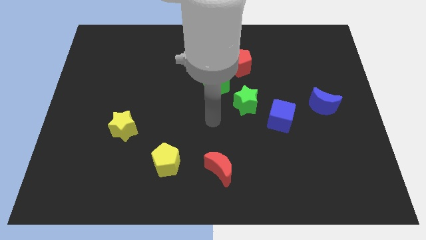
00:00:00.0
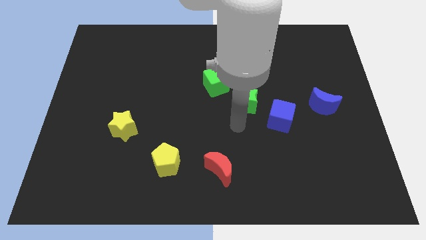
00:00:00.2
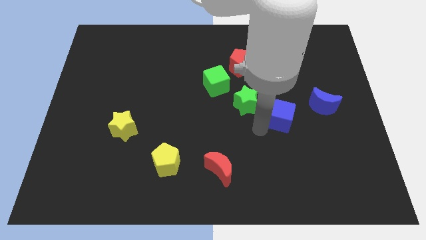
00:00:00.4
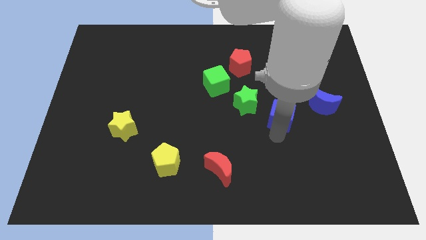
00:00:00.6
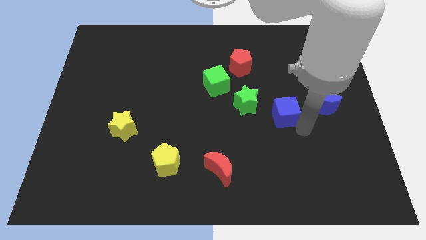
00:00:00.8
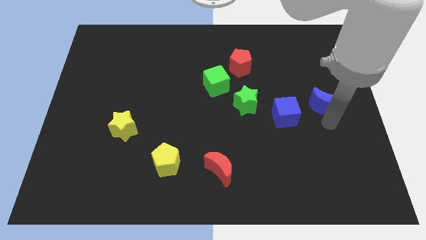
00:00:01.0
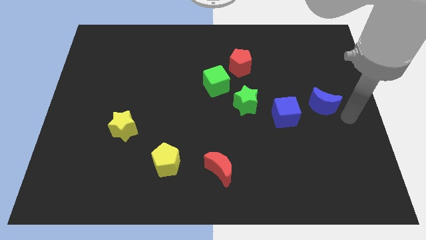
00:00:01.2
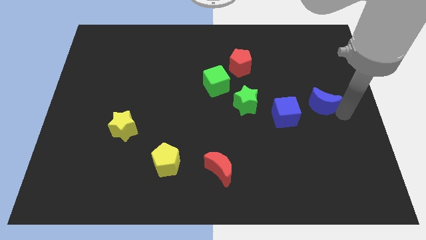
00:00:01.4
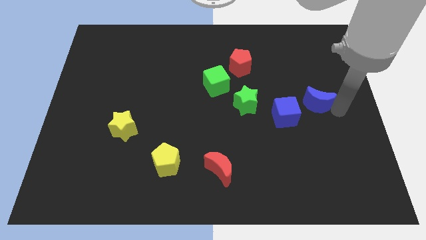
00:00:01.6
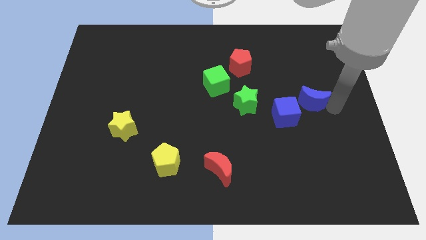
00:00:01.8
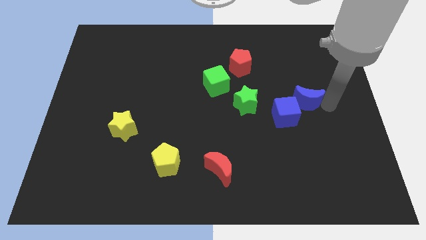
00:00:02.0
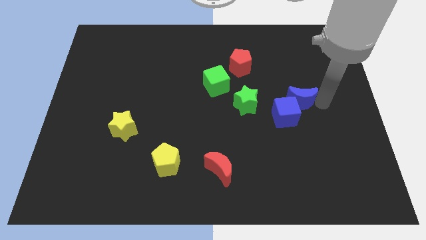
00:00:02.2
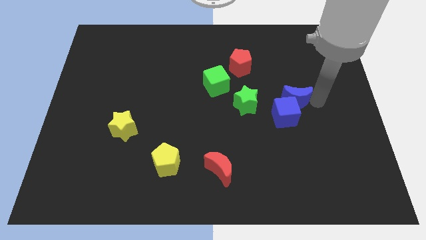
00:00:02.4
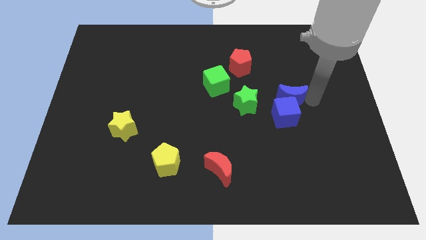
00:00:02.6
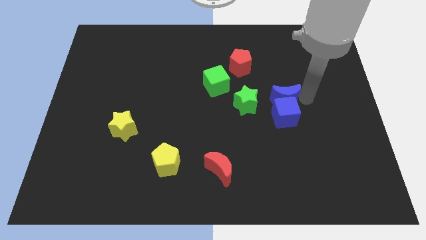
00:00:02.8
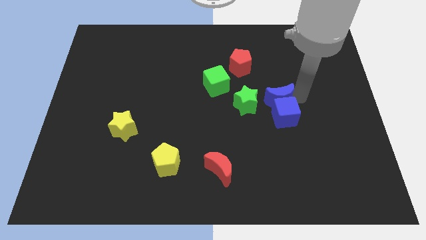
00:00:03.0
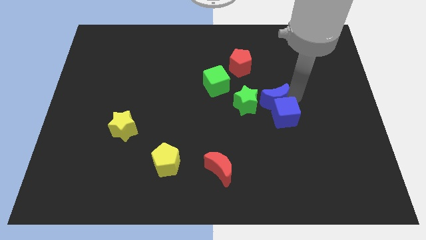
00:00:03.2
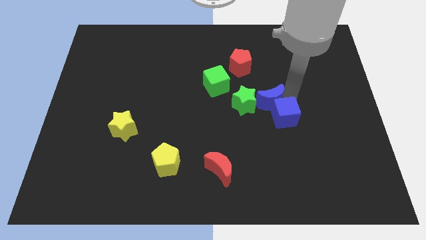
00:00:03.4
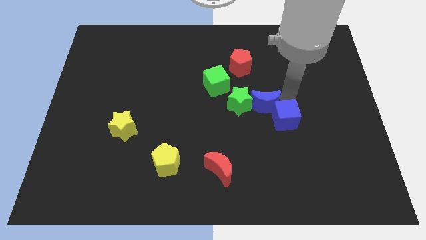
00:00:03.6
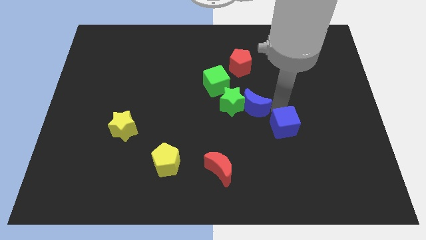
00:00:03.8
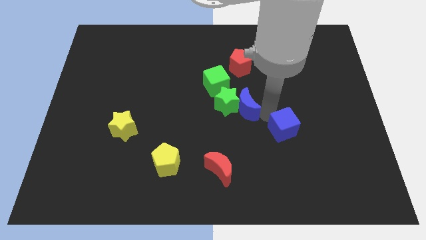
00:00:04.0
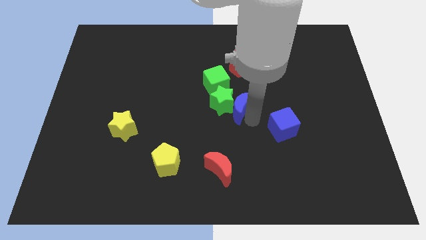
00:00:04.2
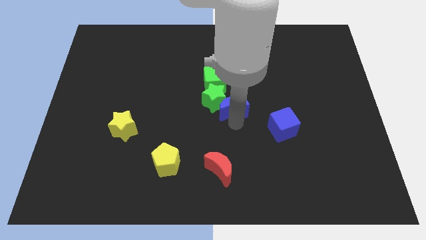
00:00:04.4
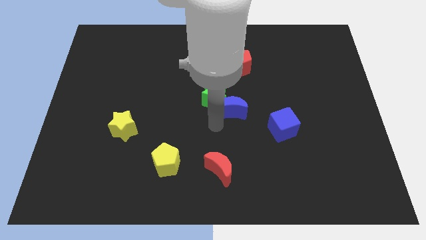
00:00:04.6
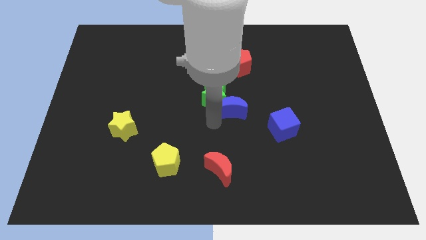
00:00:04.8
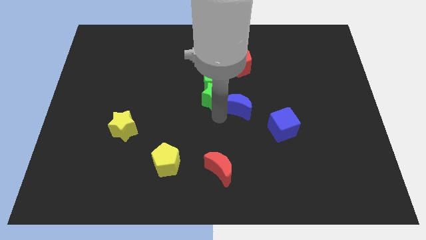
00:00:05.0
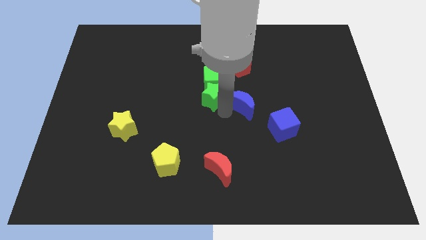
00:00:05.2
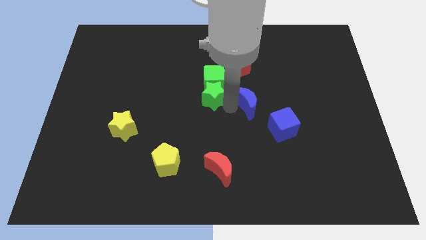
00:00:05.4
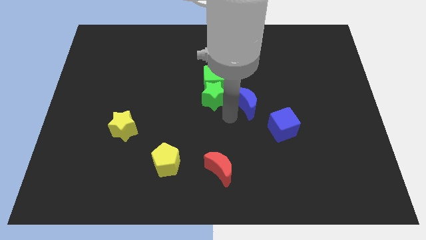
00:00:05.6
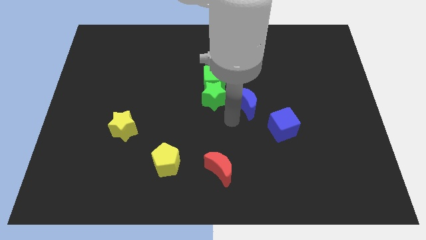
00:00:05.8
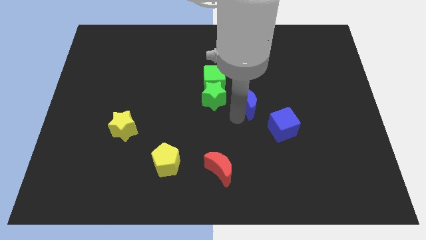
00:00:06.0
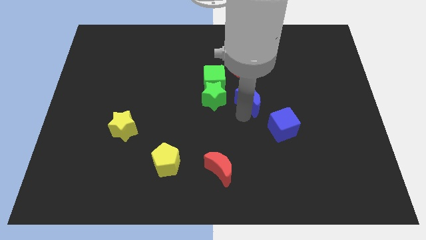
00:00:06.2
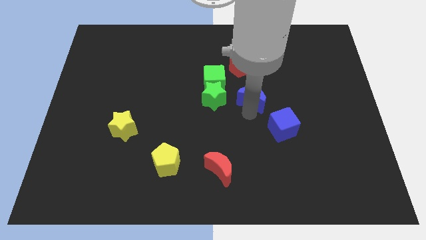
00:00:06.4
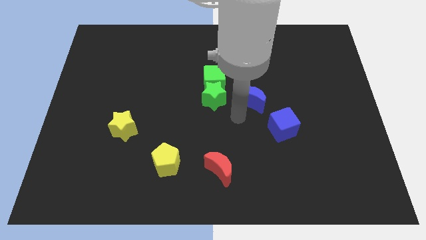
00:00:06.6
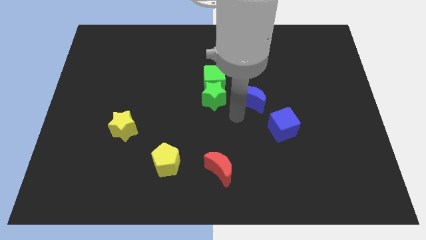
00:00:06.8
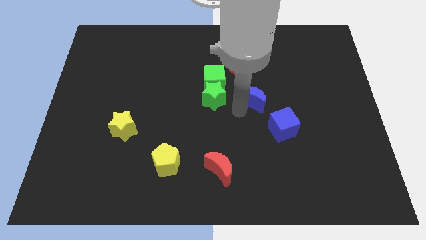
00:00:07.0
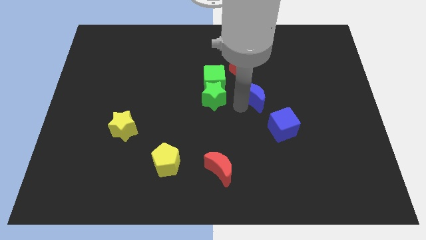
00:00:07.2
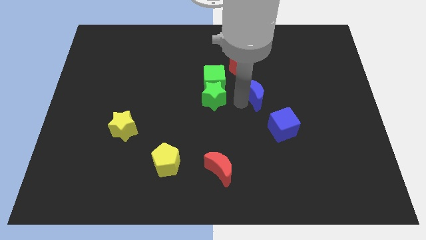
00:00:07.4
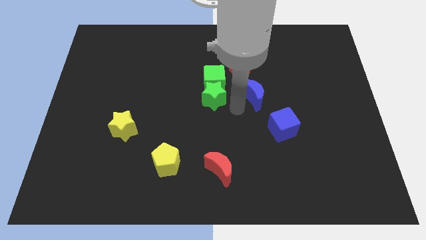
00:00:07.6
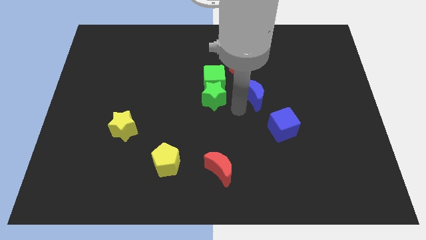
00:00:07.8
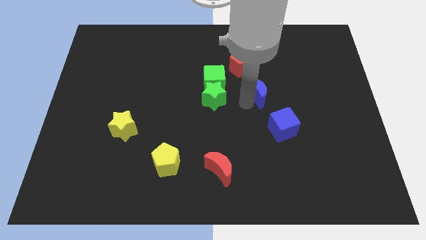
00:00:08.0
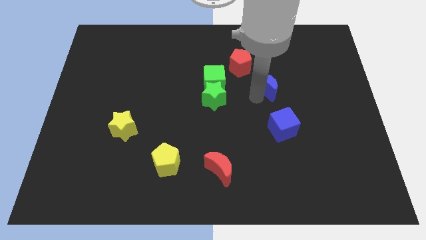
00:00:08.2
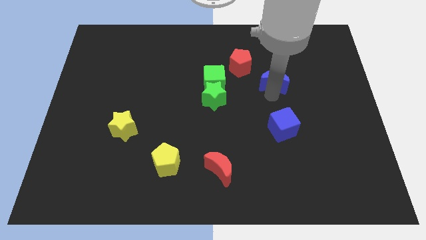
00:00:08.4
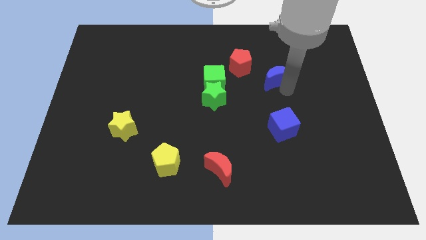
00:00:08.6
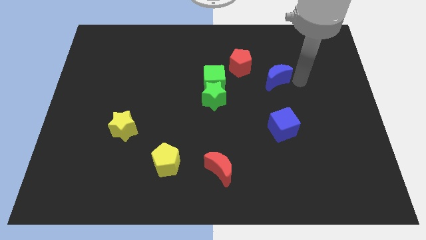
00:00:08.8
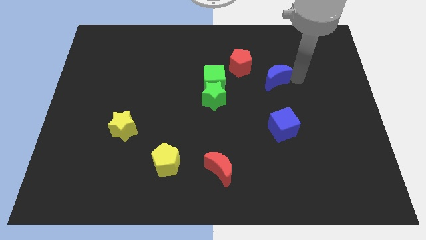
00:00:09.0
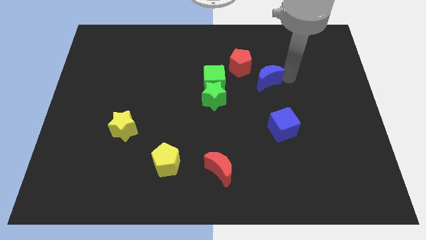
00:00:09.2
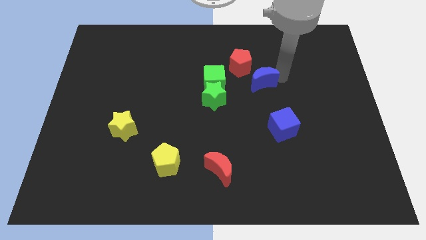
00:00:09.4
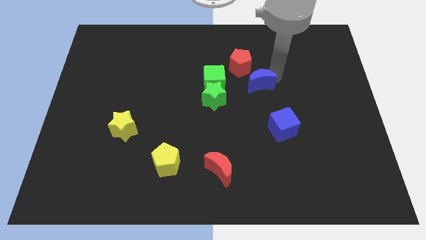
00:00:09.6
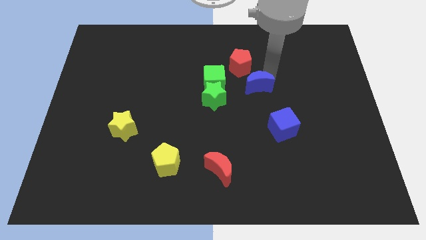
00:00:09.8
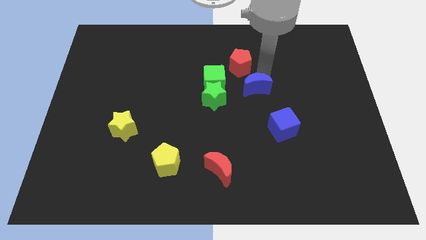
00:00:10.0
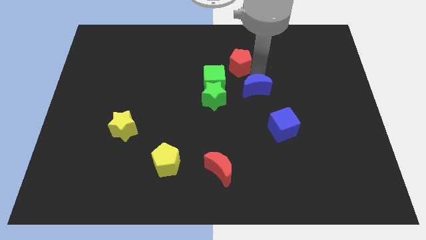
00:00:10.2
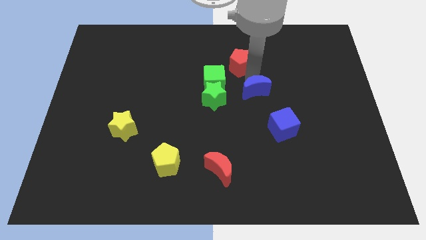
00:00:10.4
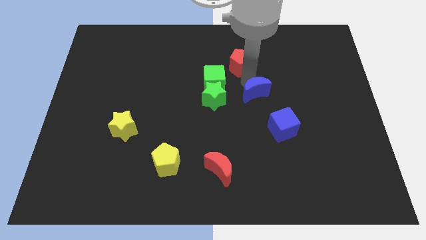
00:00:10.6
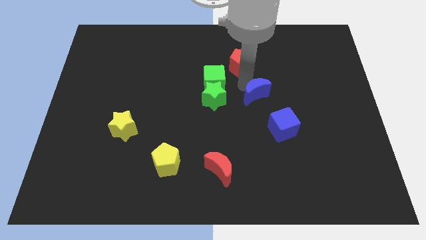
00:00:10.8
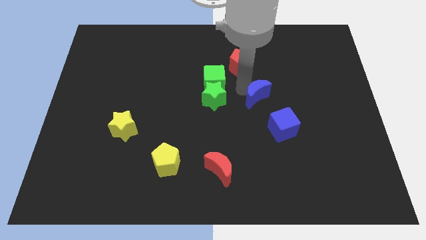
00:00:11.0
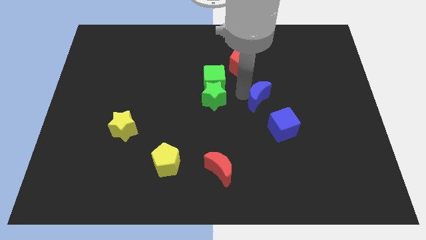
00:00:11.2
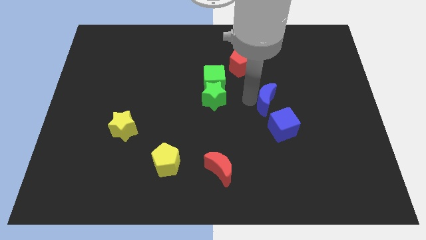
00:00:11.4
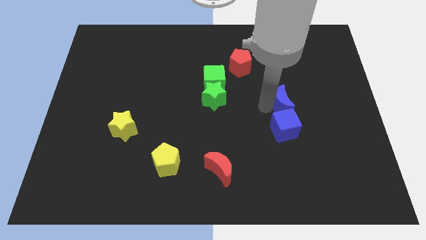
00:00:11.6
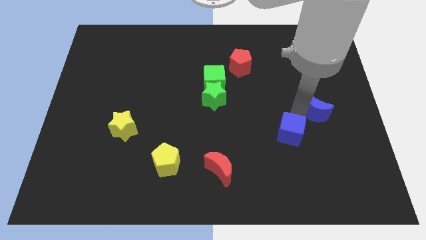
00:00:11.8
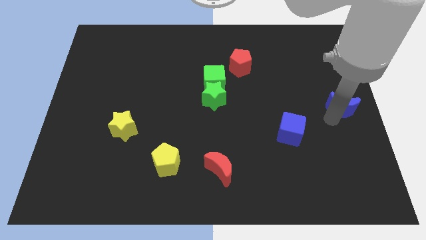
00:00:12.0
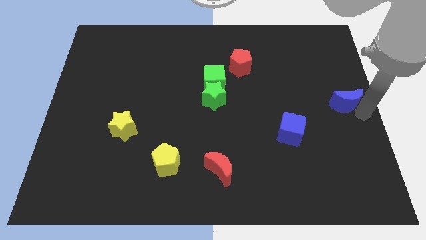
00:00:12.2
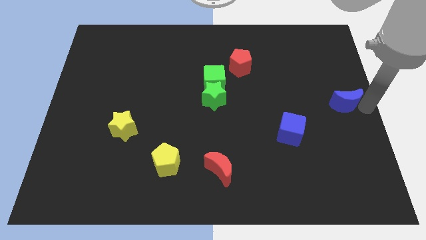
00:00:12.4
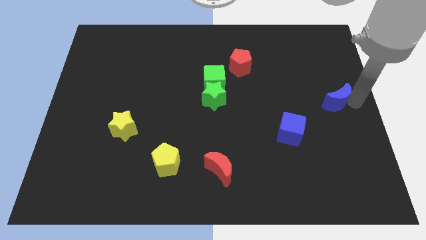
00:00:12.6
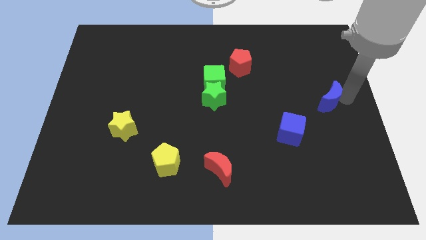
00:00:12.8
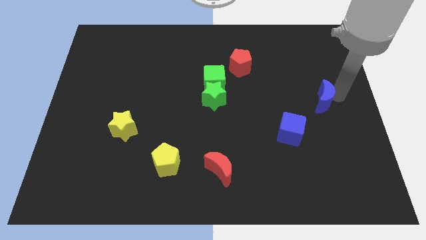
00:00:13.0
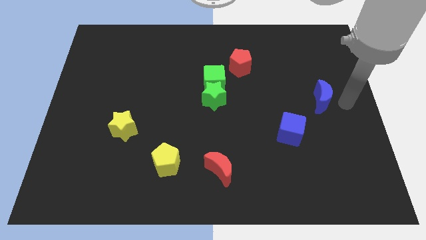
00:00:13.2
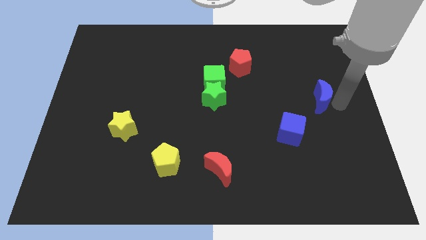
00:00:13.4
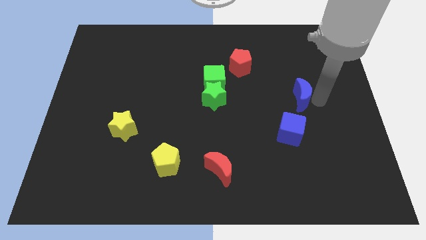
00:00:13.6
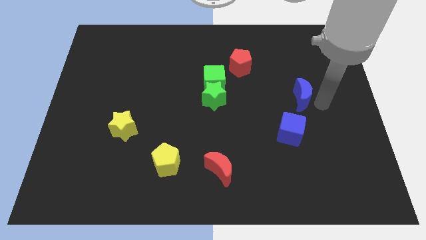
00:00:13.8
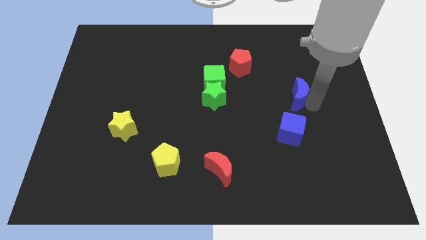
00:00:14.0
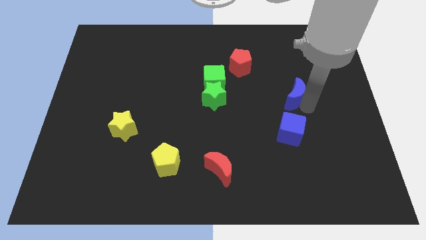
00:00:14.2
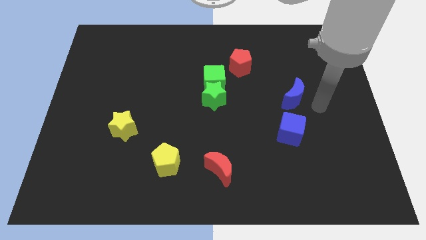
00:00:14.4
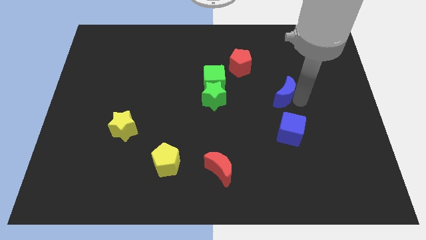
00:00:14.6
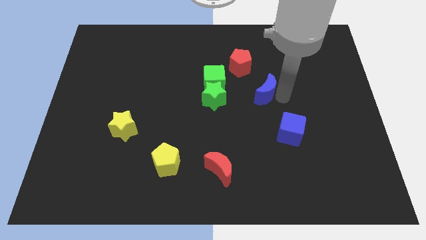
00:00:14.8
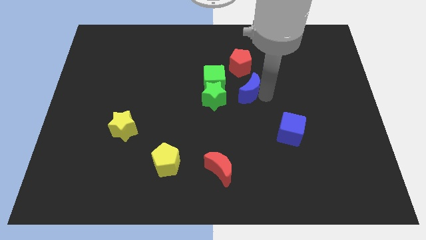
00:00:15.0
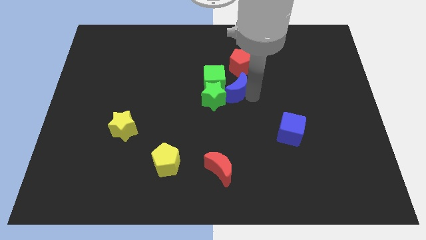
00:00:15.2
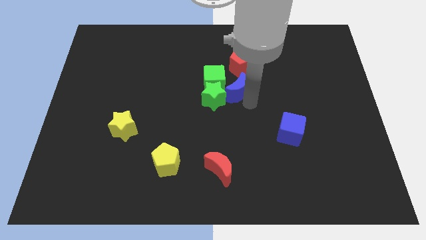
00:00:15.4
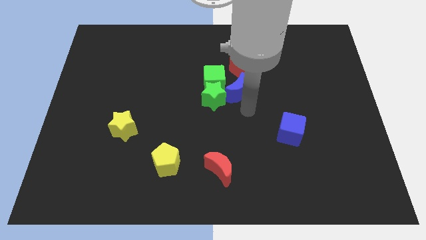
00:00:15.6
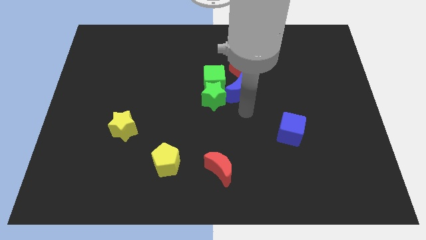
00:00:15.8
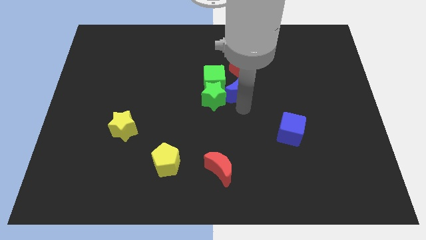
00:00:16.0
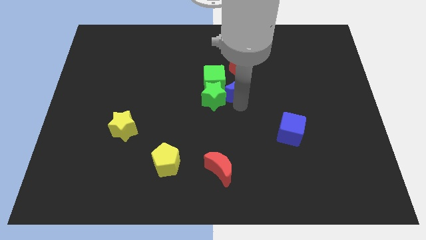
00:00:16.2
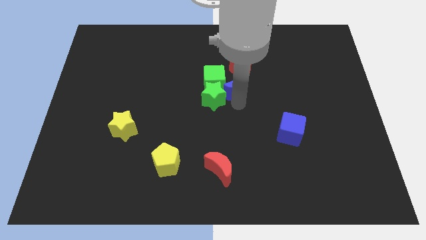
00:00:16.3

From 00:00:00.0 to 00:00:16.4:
push the blue moon next to the green cube
